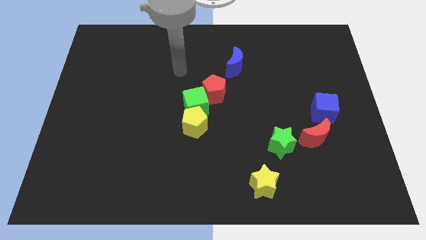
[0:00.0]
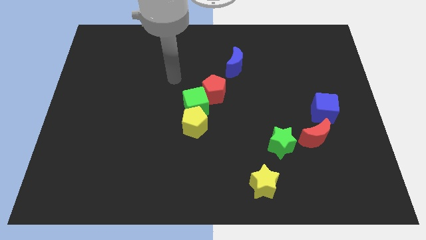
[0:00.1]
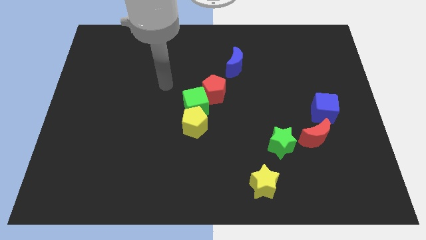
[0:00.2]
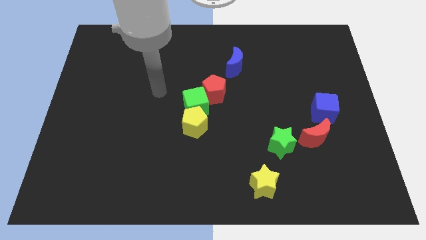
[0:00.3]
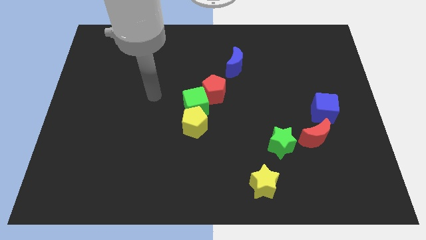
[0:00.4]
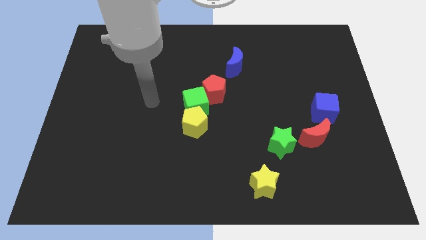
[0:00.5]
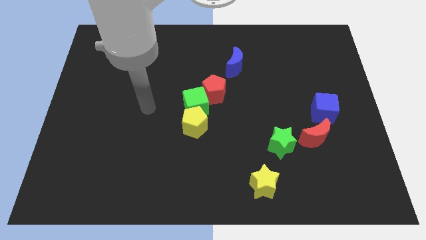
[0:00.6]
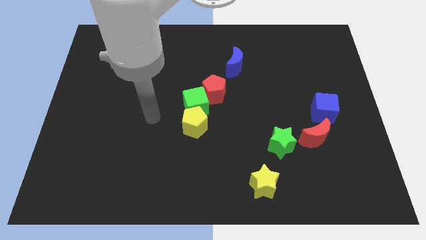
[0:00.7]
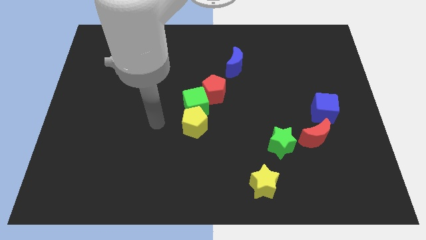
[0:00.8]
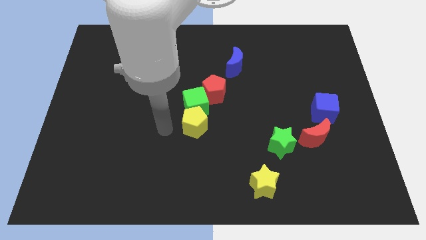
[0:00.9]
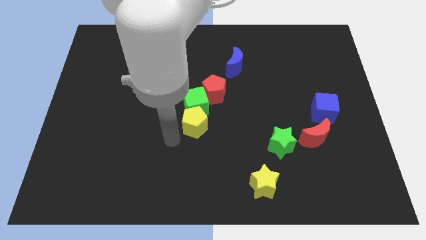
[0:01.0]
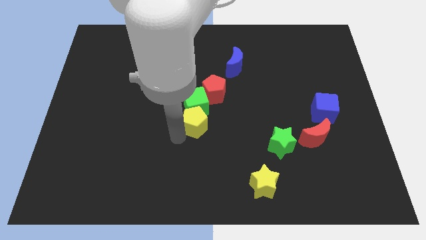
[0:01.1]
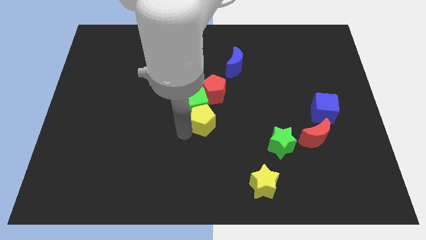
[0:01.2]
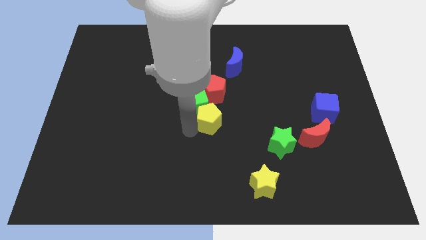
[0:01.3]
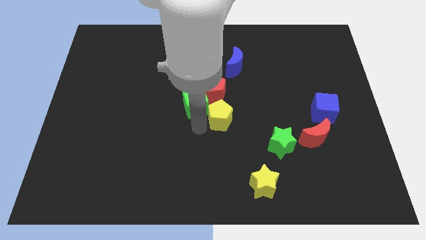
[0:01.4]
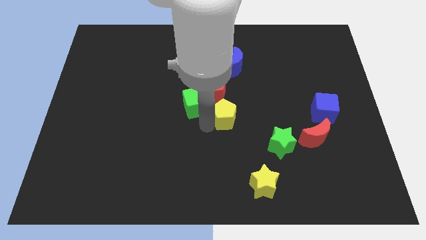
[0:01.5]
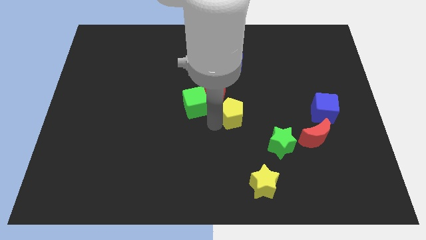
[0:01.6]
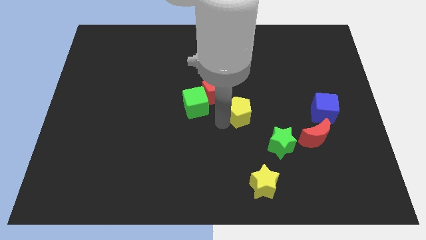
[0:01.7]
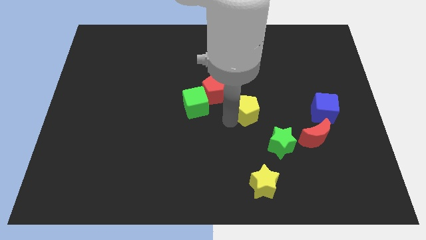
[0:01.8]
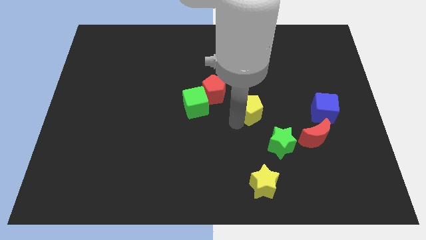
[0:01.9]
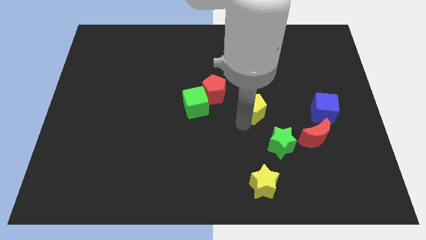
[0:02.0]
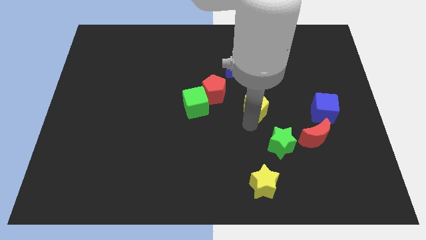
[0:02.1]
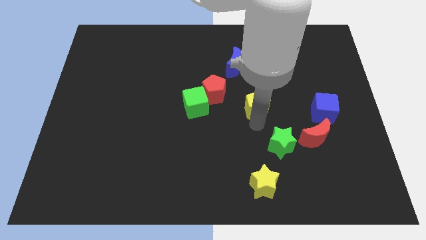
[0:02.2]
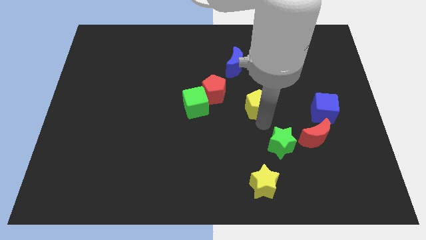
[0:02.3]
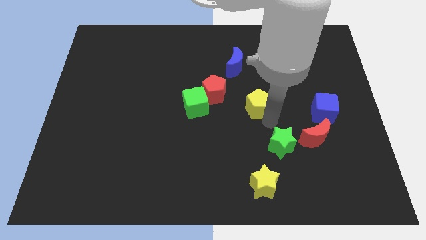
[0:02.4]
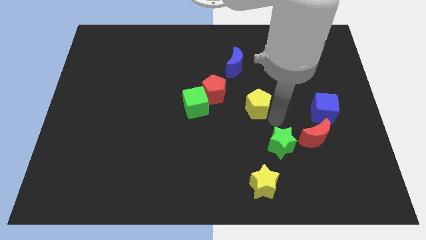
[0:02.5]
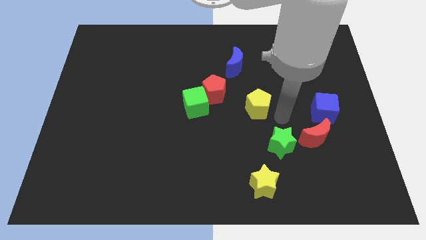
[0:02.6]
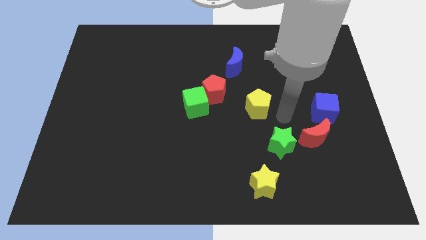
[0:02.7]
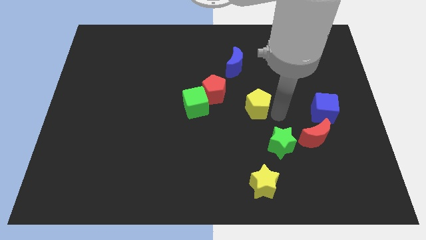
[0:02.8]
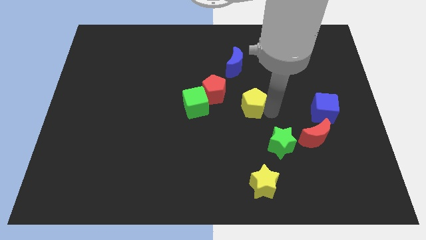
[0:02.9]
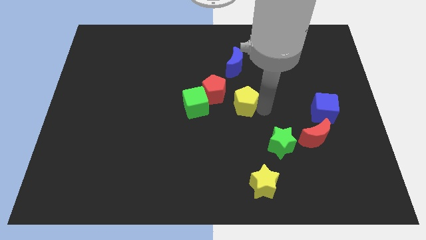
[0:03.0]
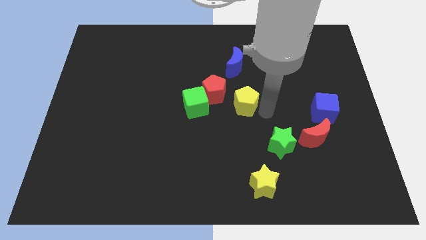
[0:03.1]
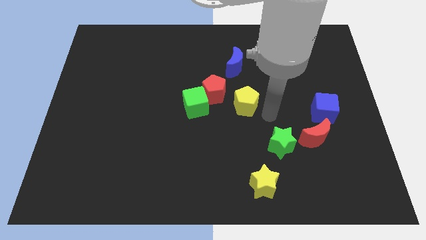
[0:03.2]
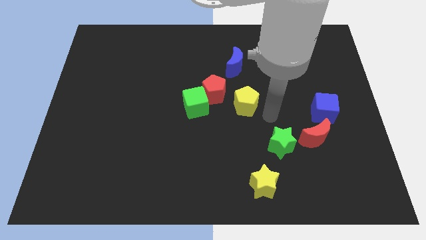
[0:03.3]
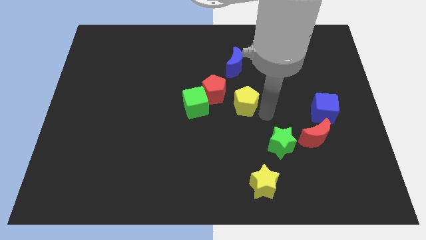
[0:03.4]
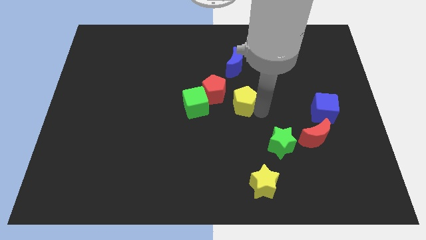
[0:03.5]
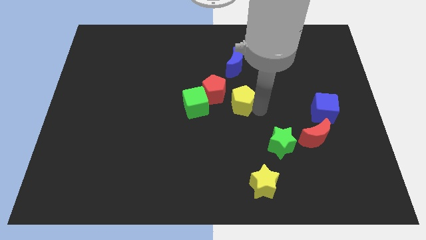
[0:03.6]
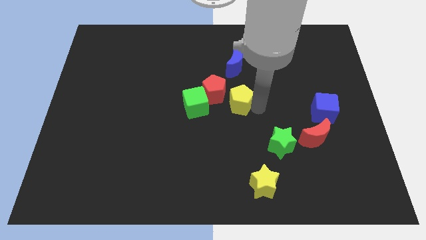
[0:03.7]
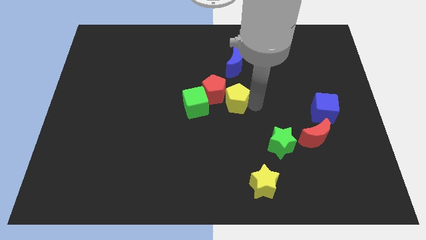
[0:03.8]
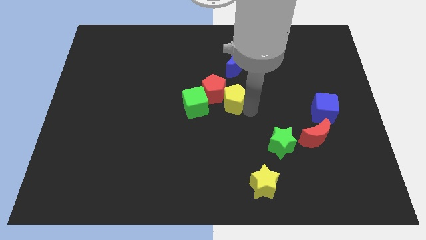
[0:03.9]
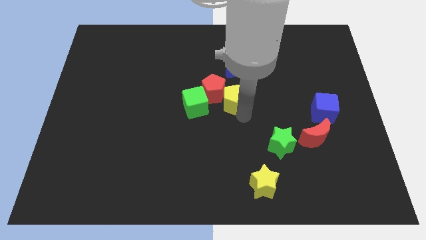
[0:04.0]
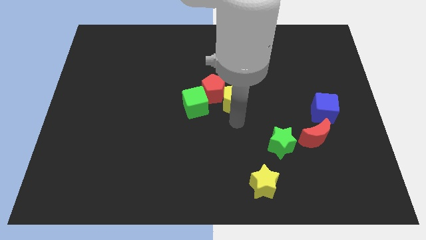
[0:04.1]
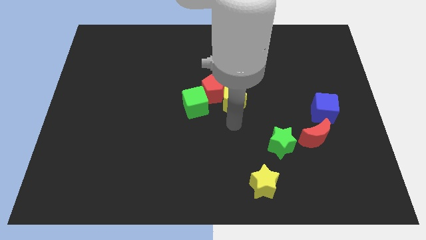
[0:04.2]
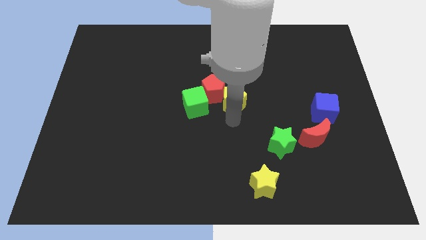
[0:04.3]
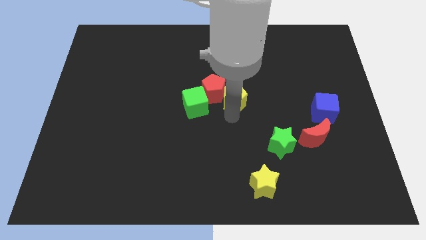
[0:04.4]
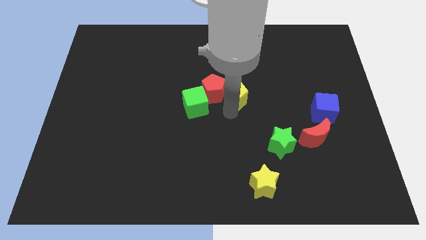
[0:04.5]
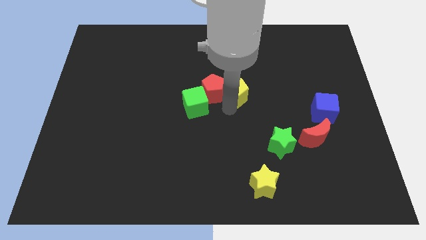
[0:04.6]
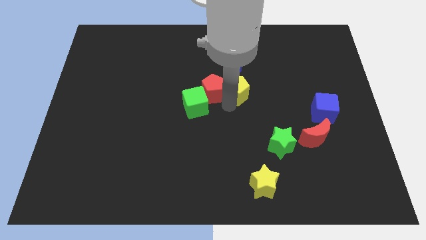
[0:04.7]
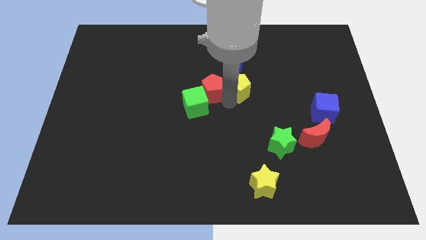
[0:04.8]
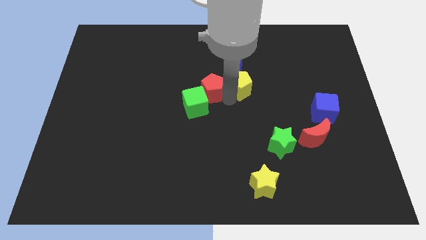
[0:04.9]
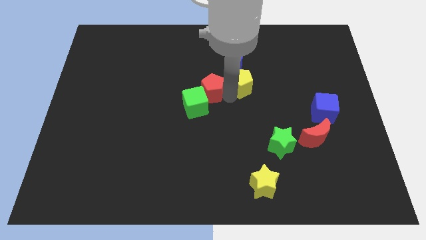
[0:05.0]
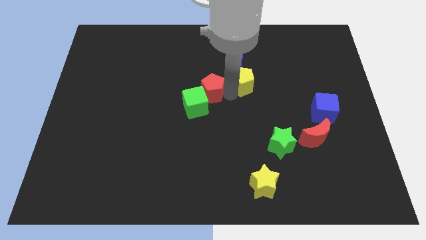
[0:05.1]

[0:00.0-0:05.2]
push the yellow pentagon towards the blue moon

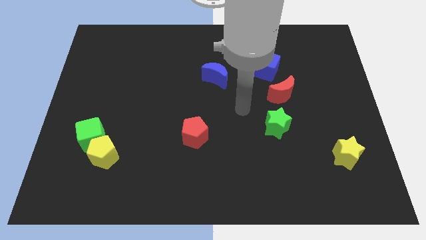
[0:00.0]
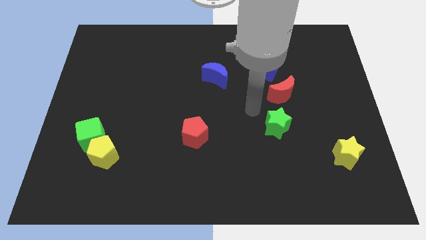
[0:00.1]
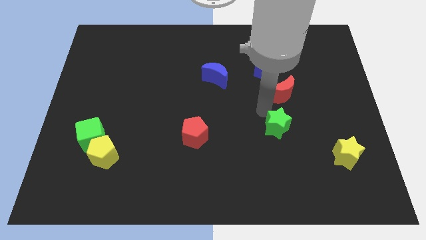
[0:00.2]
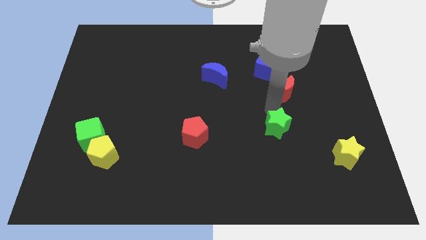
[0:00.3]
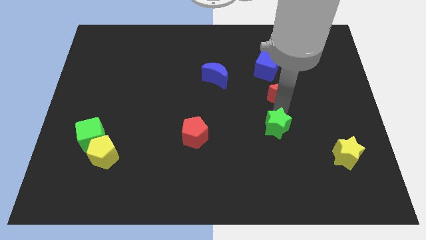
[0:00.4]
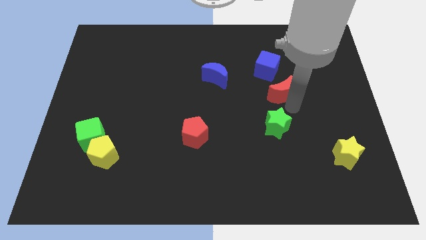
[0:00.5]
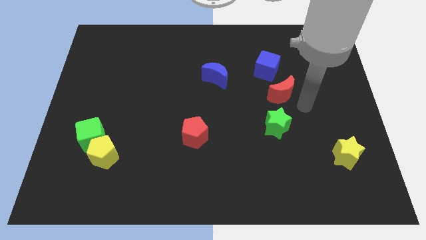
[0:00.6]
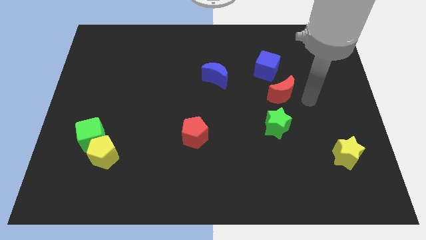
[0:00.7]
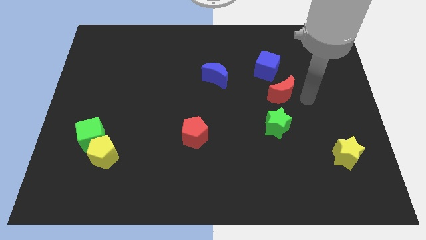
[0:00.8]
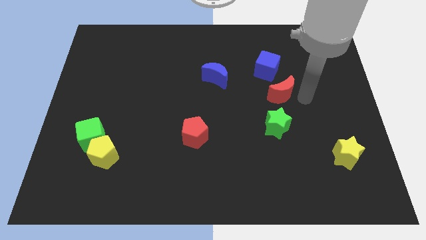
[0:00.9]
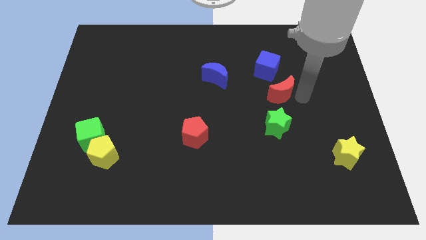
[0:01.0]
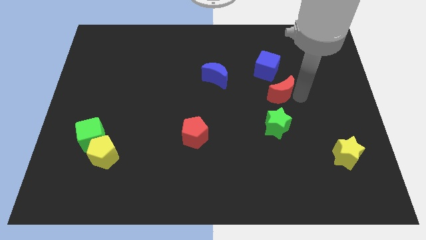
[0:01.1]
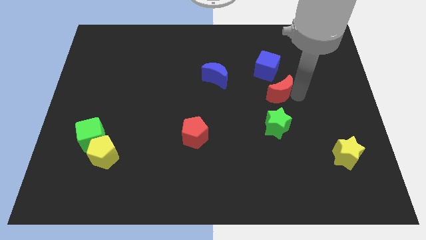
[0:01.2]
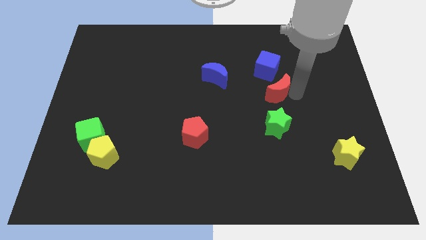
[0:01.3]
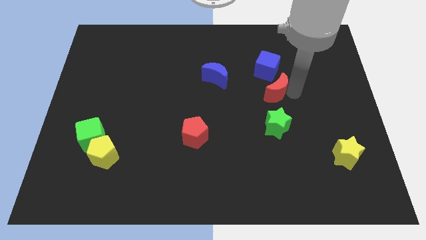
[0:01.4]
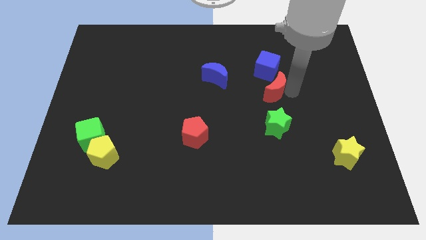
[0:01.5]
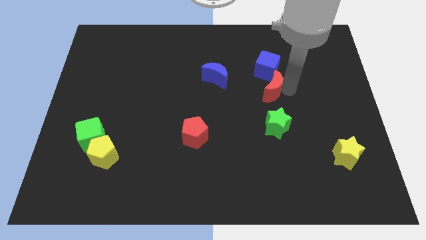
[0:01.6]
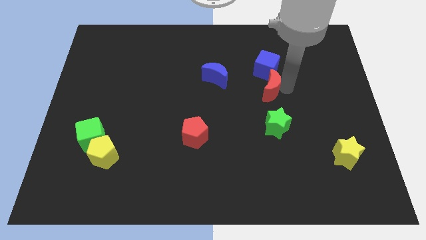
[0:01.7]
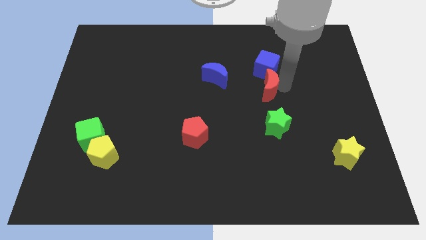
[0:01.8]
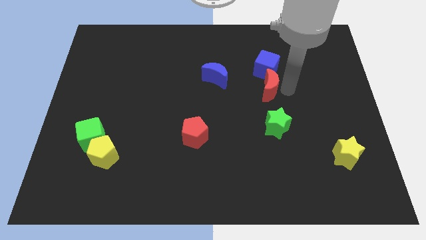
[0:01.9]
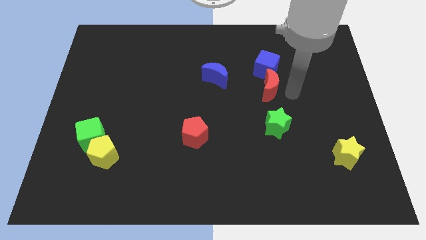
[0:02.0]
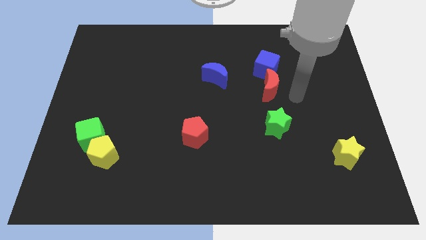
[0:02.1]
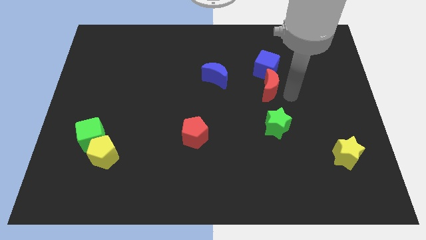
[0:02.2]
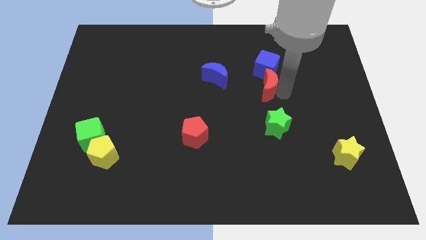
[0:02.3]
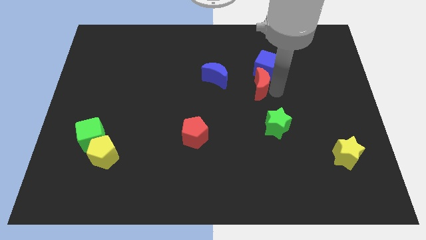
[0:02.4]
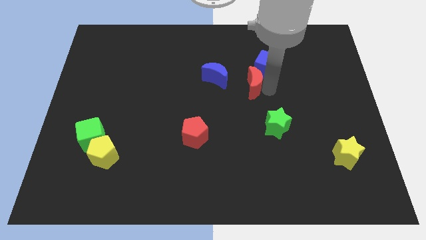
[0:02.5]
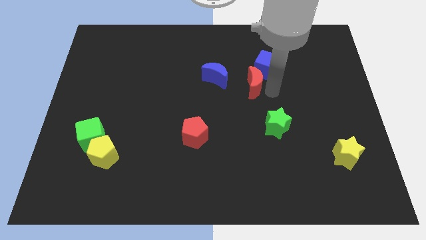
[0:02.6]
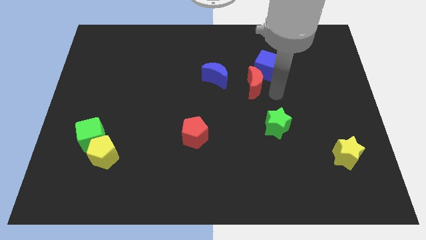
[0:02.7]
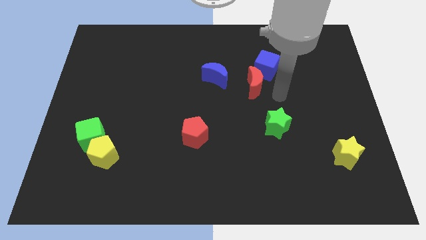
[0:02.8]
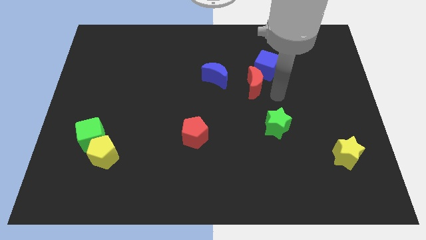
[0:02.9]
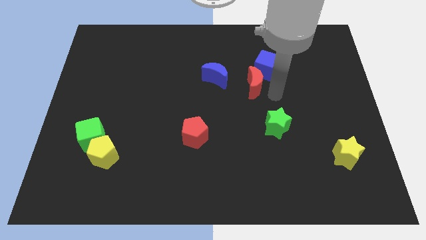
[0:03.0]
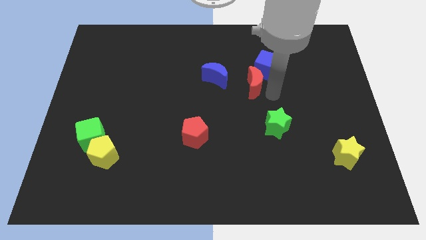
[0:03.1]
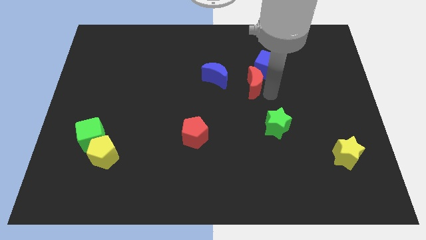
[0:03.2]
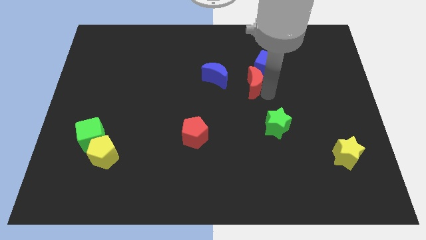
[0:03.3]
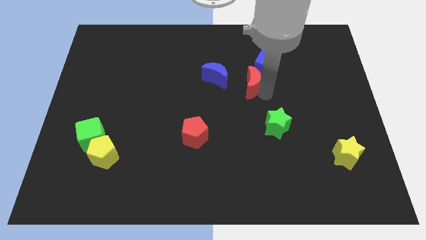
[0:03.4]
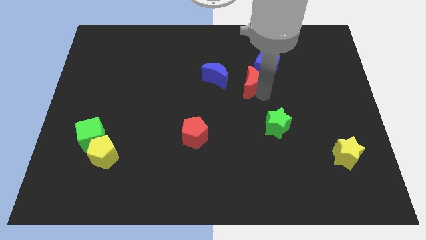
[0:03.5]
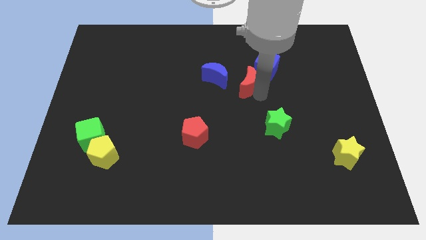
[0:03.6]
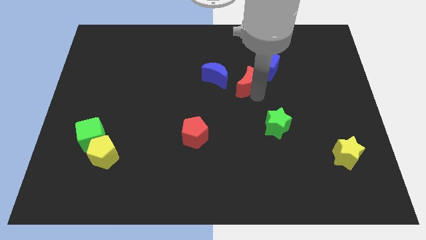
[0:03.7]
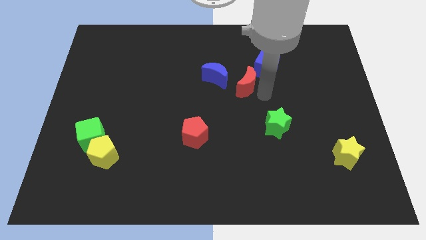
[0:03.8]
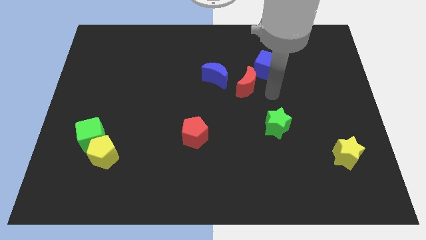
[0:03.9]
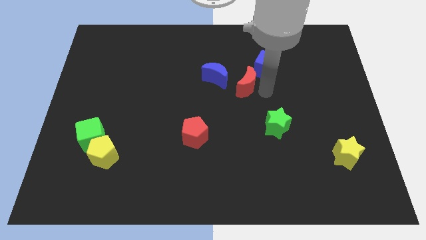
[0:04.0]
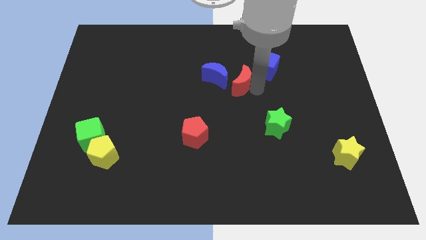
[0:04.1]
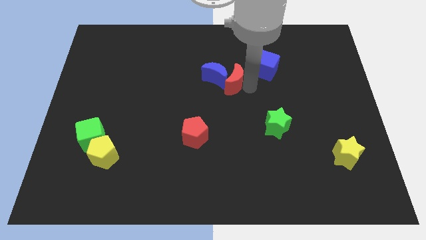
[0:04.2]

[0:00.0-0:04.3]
move the red moon close to the blue moon
